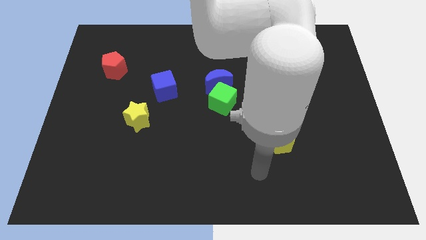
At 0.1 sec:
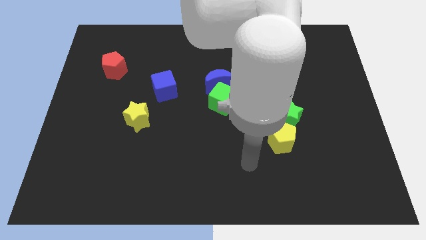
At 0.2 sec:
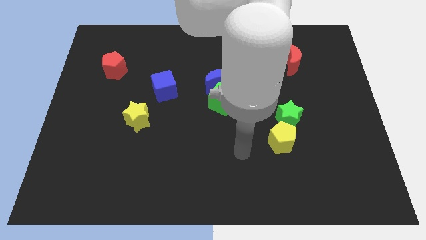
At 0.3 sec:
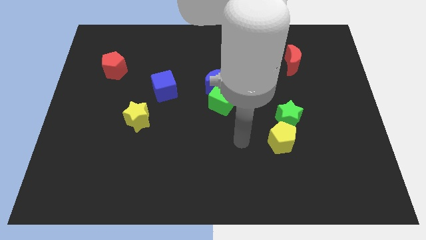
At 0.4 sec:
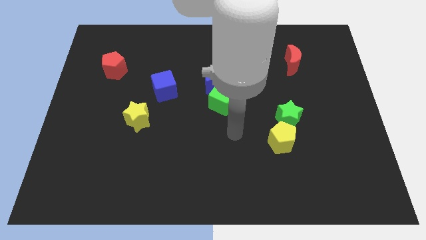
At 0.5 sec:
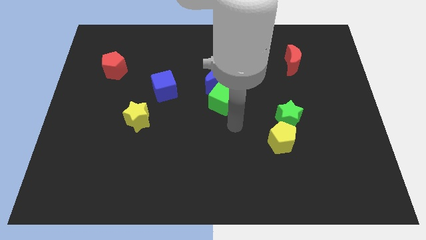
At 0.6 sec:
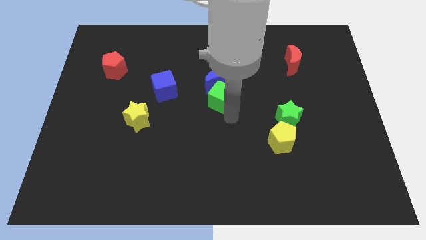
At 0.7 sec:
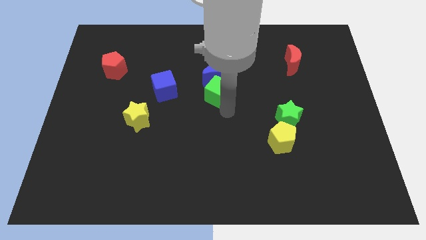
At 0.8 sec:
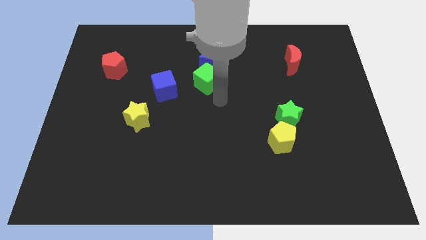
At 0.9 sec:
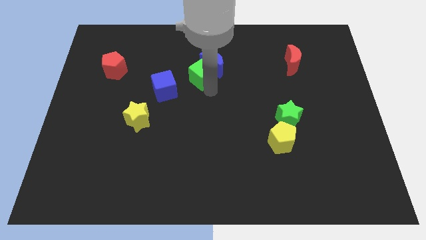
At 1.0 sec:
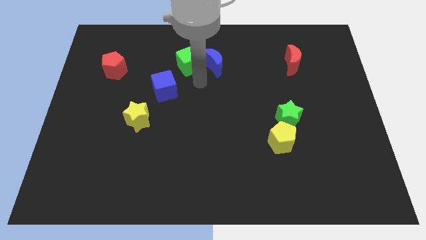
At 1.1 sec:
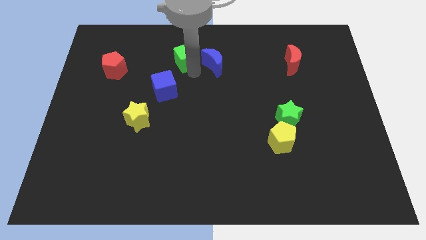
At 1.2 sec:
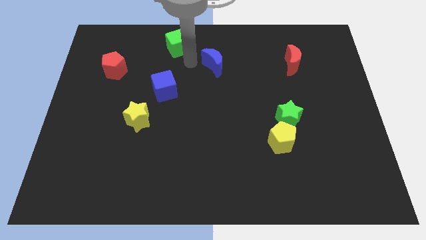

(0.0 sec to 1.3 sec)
pull the blue moon apart from the green cube

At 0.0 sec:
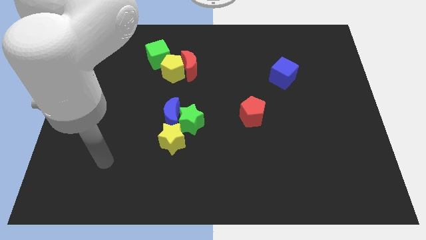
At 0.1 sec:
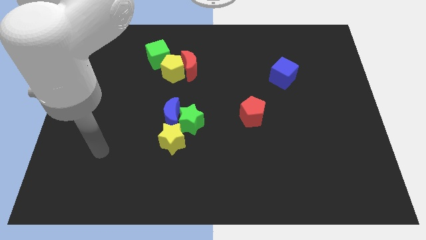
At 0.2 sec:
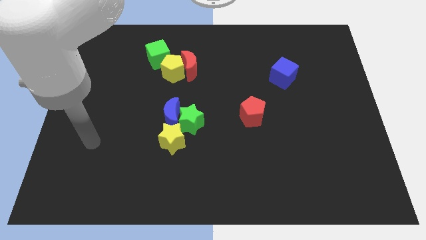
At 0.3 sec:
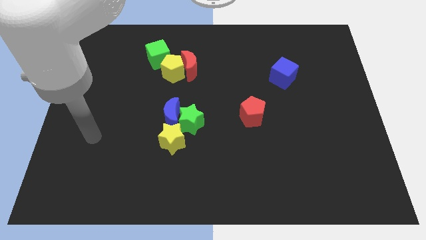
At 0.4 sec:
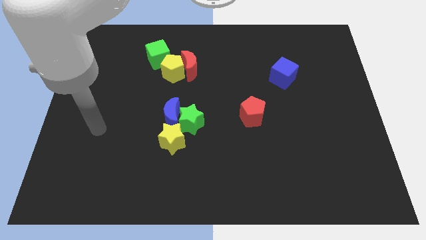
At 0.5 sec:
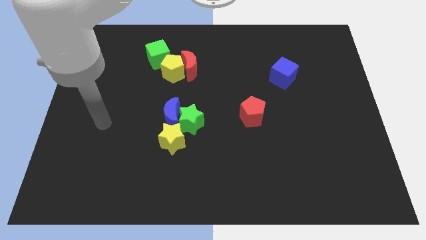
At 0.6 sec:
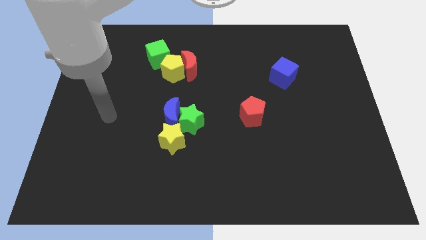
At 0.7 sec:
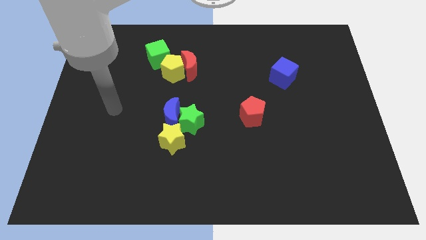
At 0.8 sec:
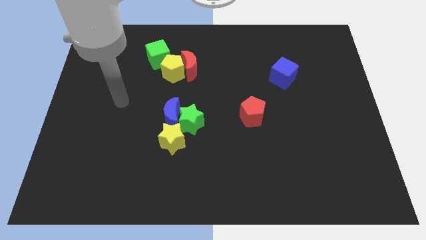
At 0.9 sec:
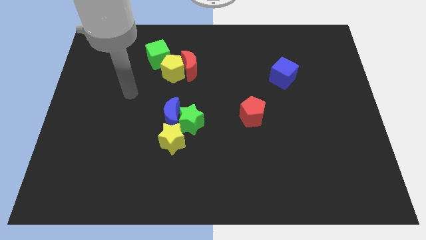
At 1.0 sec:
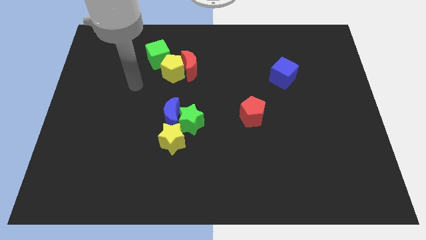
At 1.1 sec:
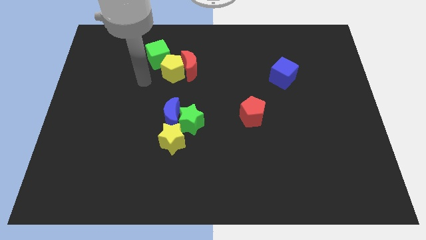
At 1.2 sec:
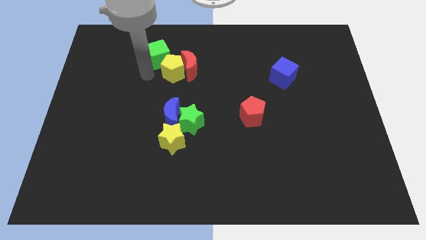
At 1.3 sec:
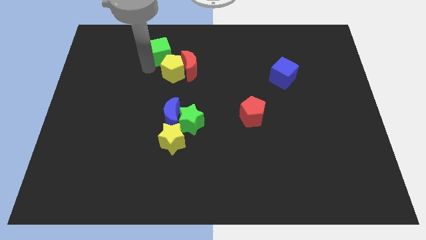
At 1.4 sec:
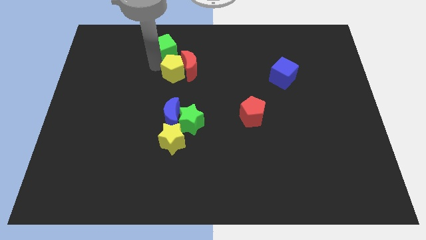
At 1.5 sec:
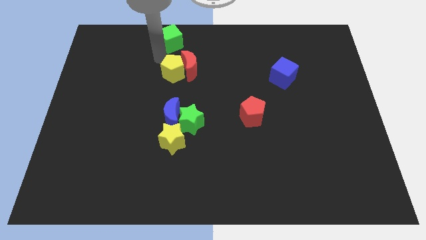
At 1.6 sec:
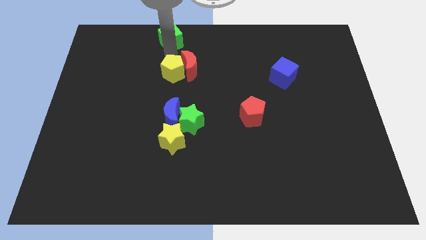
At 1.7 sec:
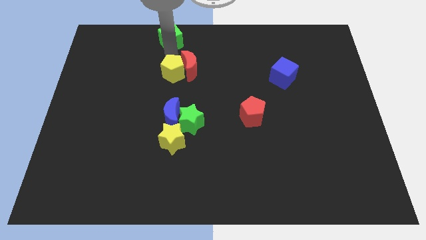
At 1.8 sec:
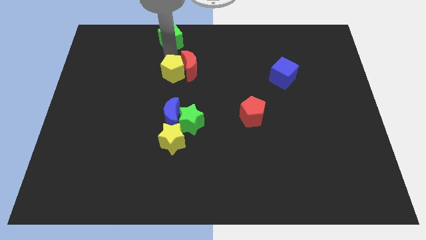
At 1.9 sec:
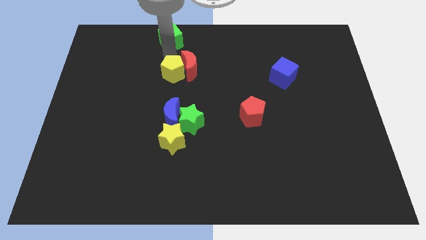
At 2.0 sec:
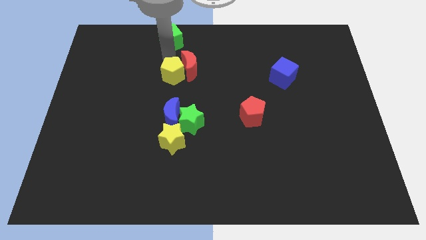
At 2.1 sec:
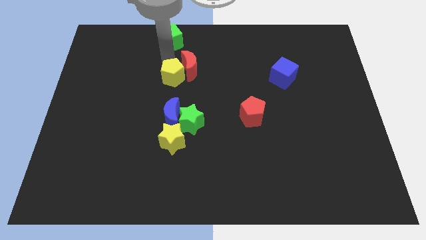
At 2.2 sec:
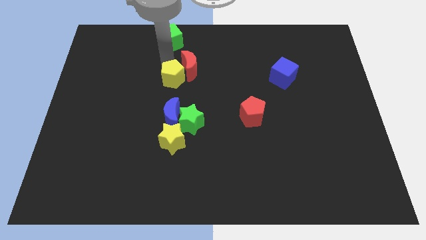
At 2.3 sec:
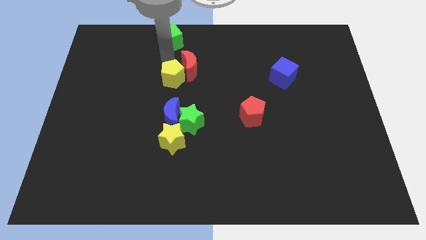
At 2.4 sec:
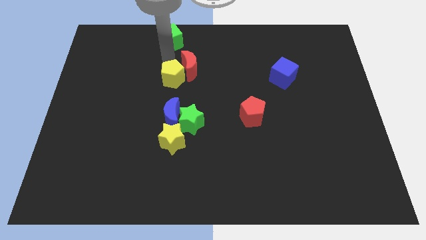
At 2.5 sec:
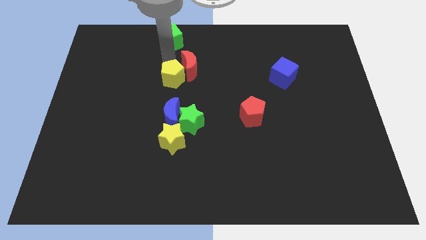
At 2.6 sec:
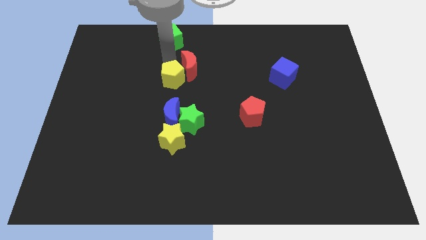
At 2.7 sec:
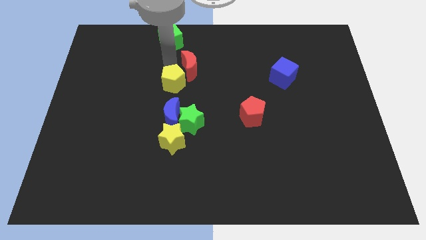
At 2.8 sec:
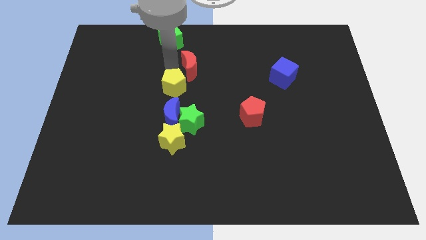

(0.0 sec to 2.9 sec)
separate the yellow pentagon from the red moon and green cube

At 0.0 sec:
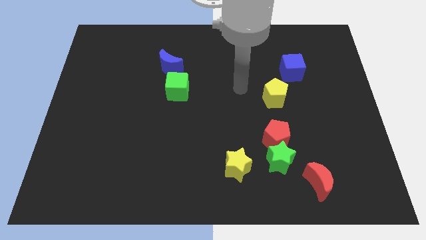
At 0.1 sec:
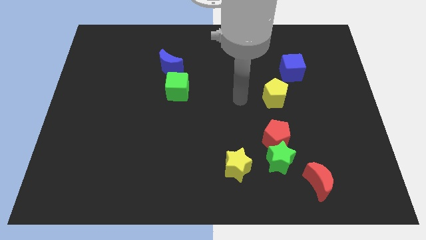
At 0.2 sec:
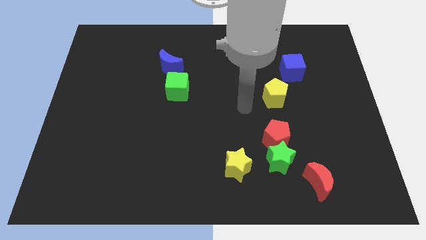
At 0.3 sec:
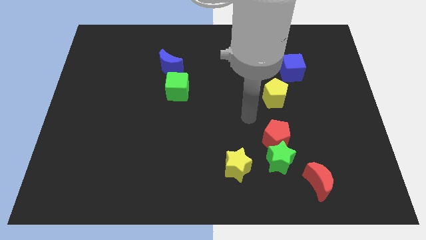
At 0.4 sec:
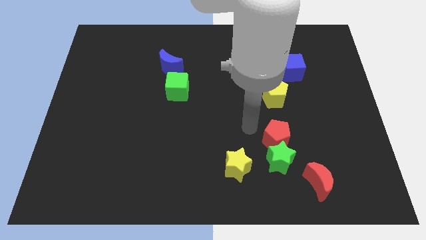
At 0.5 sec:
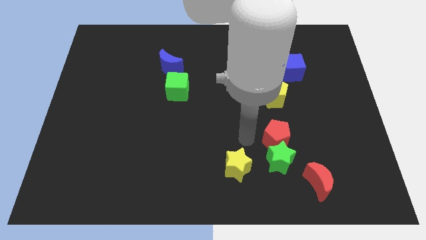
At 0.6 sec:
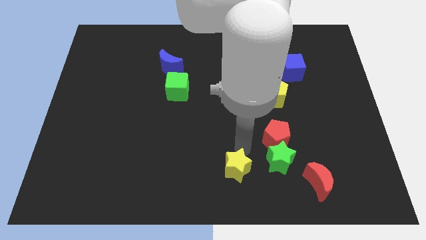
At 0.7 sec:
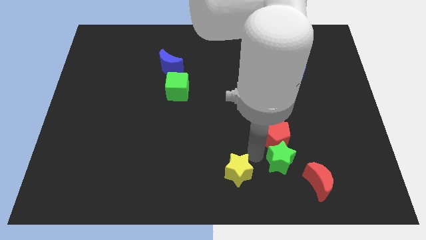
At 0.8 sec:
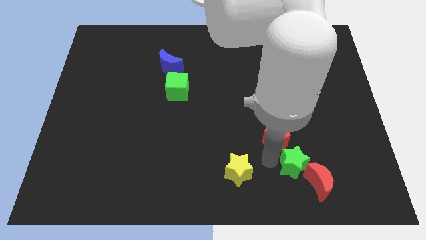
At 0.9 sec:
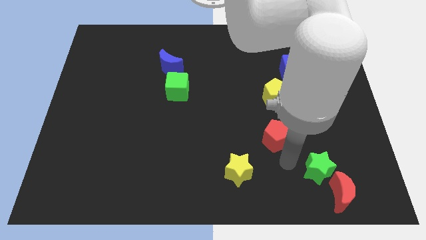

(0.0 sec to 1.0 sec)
move the red pentagon away from the green star

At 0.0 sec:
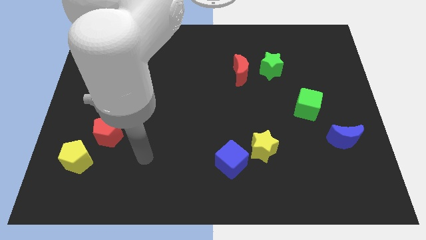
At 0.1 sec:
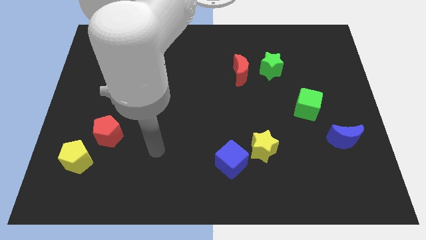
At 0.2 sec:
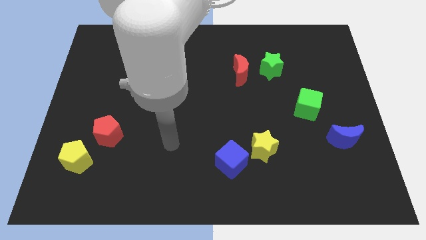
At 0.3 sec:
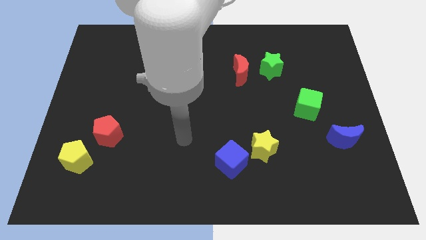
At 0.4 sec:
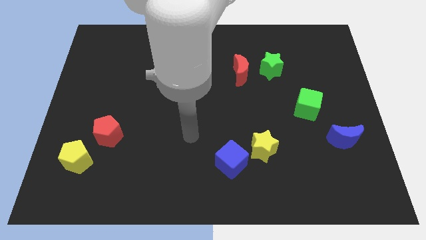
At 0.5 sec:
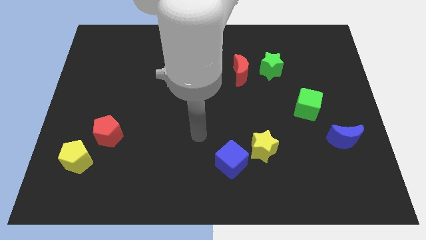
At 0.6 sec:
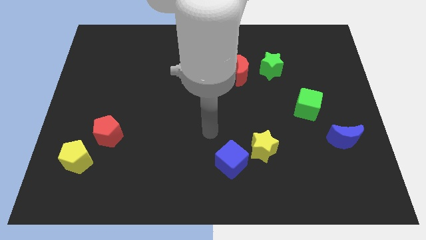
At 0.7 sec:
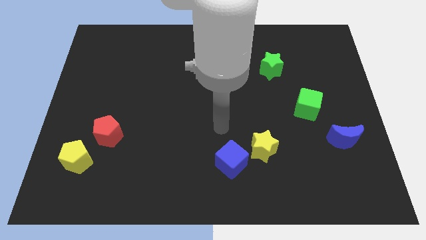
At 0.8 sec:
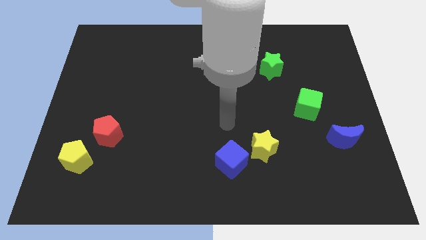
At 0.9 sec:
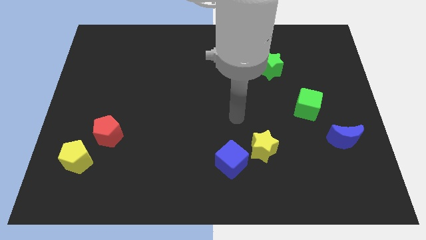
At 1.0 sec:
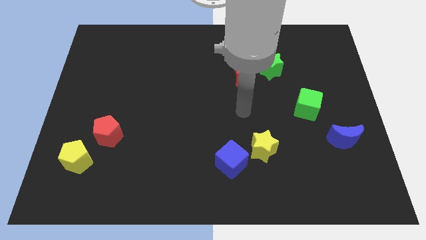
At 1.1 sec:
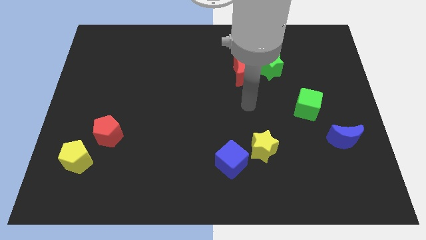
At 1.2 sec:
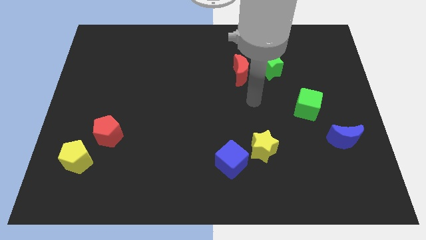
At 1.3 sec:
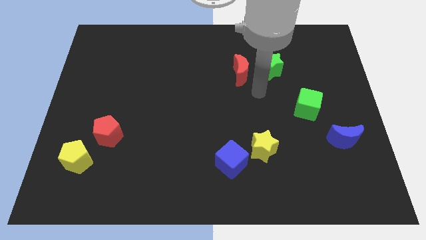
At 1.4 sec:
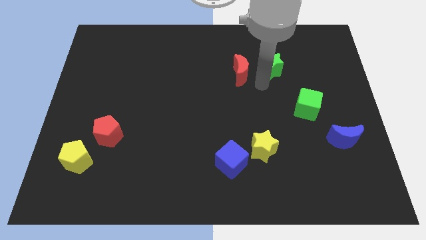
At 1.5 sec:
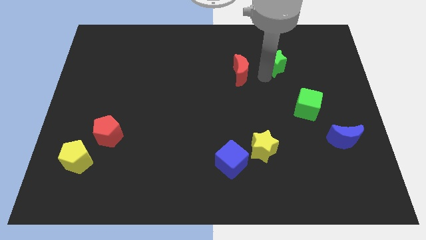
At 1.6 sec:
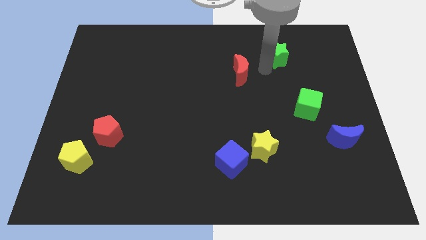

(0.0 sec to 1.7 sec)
separate the red moon from the green star

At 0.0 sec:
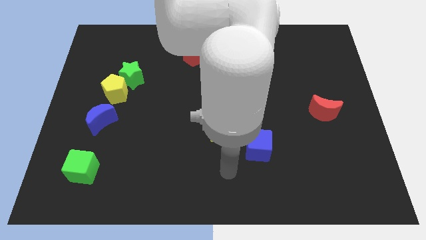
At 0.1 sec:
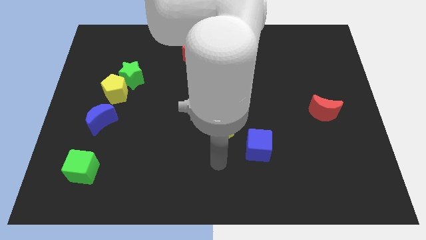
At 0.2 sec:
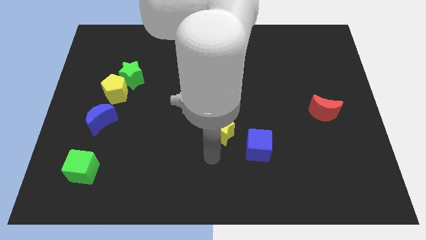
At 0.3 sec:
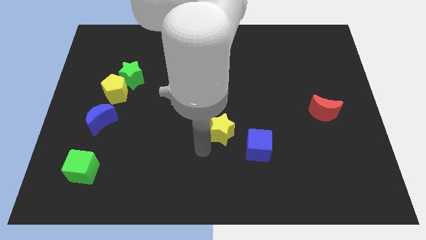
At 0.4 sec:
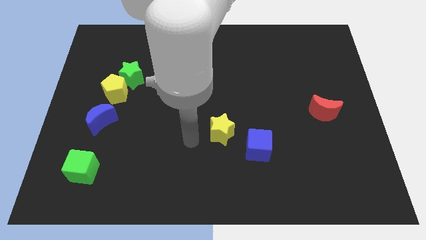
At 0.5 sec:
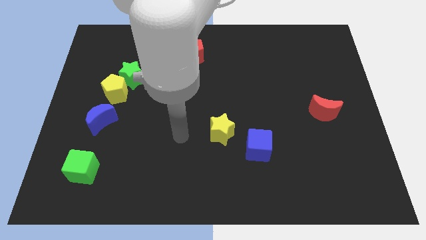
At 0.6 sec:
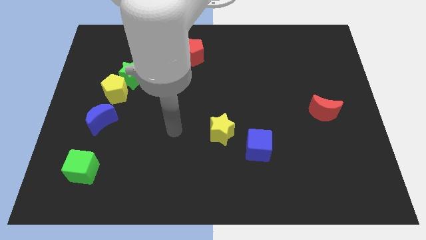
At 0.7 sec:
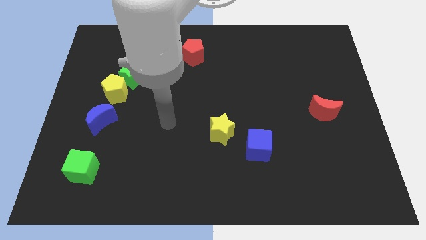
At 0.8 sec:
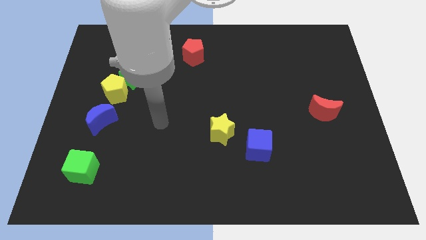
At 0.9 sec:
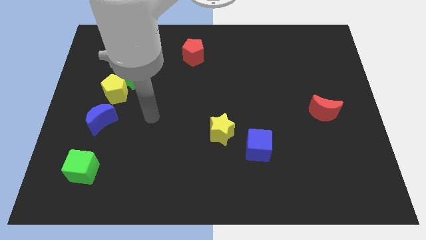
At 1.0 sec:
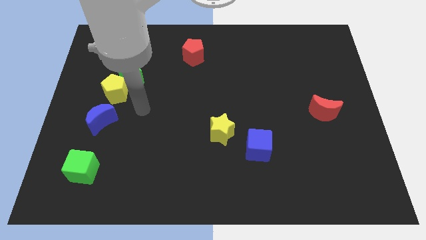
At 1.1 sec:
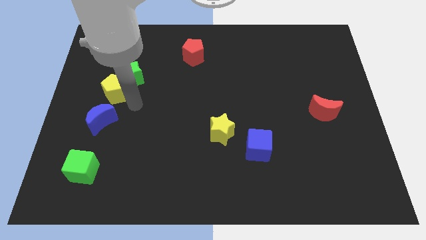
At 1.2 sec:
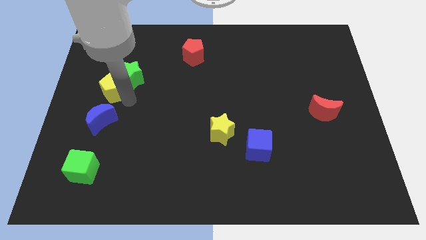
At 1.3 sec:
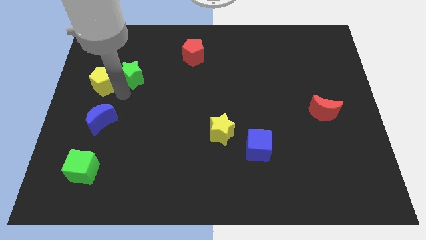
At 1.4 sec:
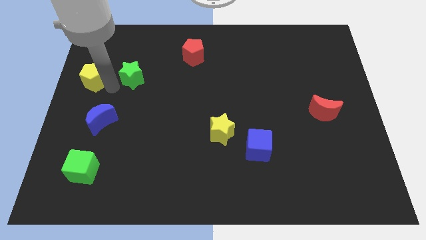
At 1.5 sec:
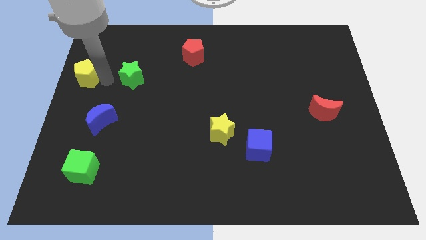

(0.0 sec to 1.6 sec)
pull the green star apart from the yellow pentagon

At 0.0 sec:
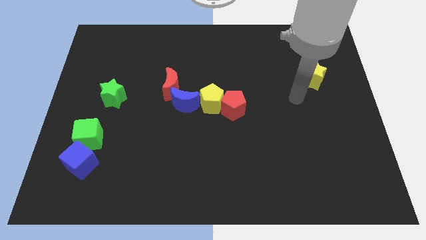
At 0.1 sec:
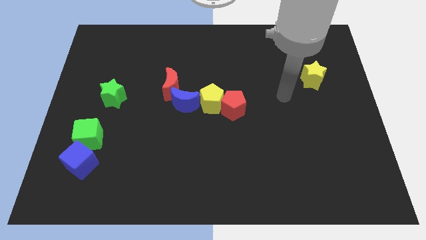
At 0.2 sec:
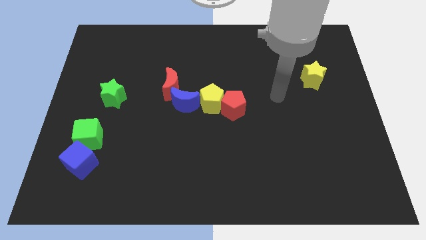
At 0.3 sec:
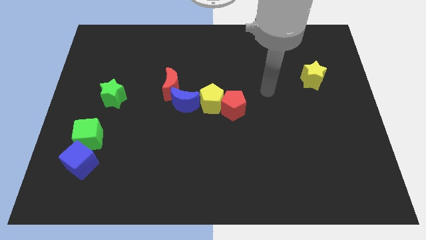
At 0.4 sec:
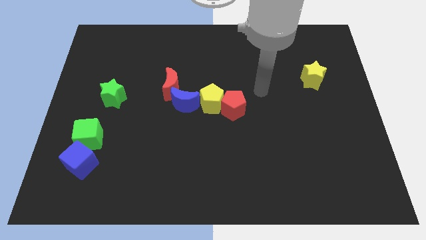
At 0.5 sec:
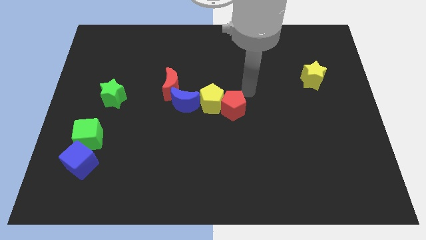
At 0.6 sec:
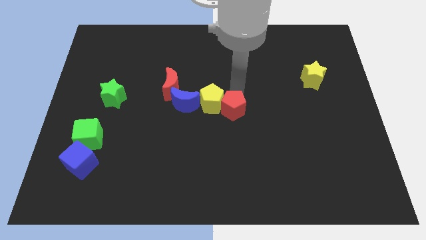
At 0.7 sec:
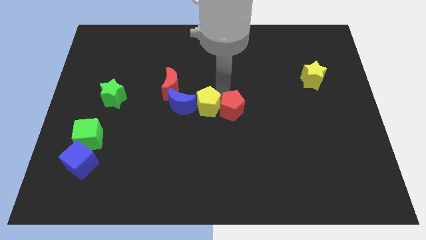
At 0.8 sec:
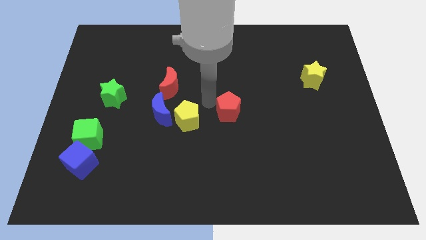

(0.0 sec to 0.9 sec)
separate the red pentagon from the yellow pentagon
